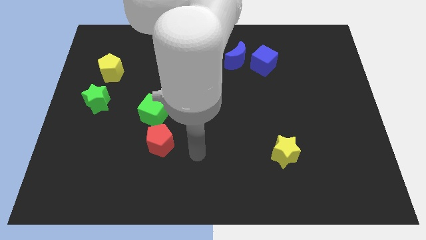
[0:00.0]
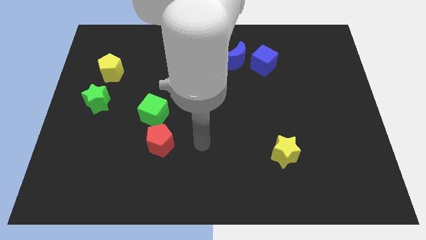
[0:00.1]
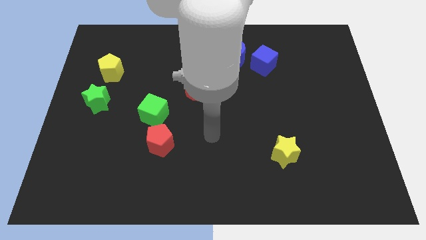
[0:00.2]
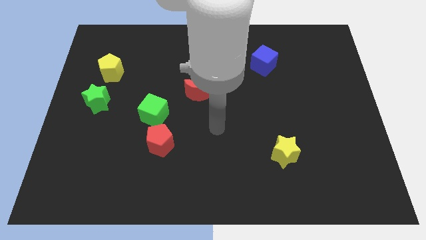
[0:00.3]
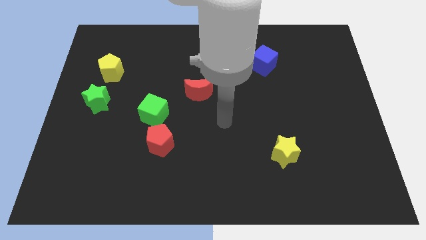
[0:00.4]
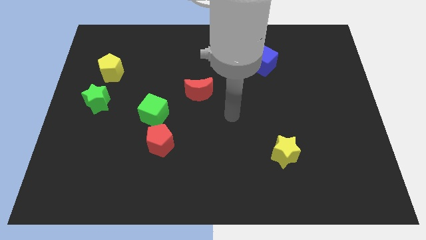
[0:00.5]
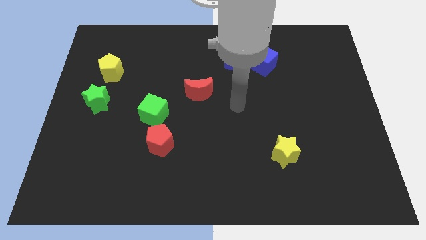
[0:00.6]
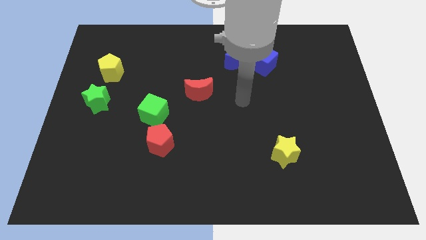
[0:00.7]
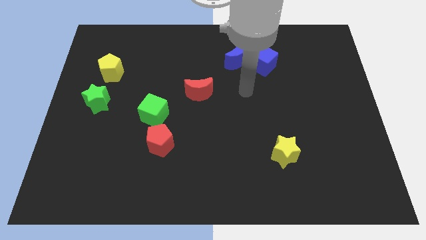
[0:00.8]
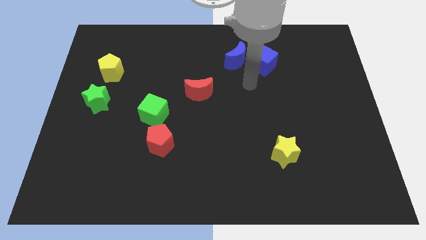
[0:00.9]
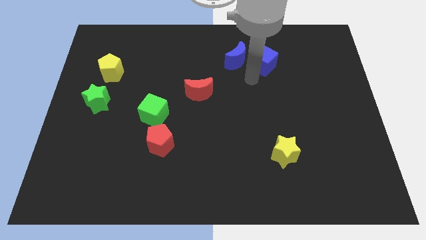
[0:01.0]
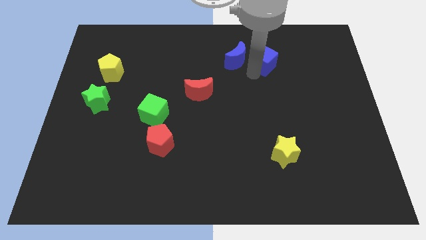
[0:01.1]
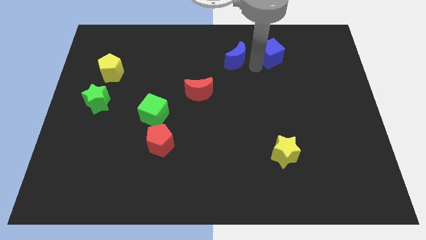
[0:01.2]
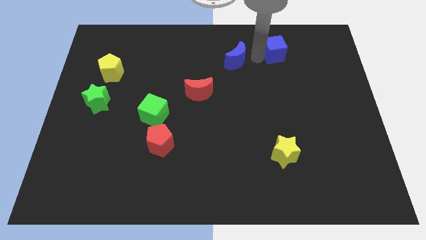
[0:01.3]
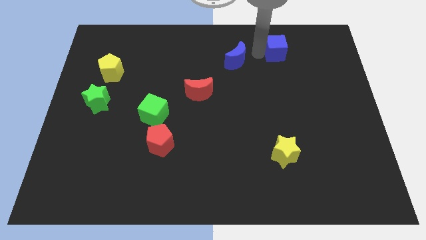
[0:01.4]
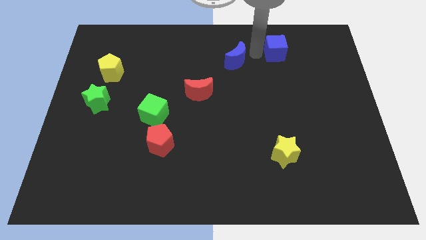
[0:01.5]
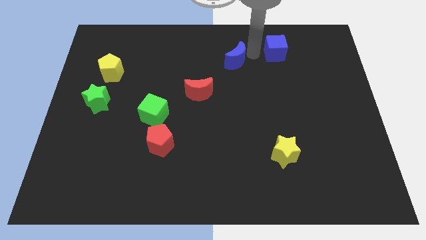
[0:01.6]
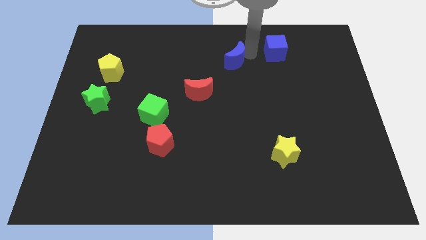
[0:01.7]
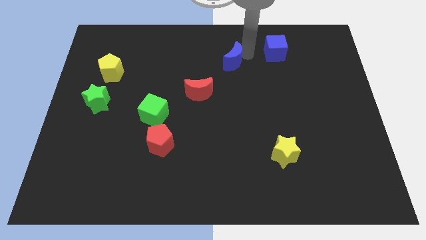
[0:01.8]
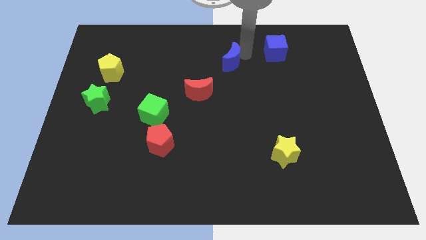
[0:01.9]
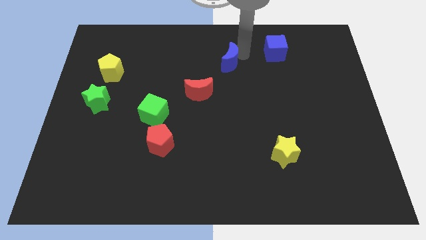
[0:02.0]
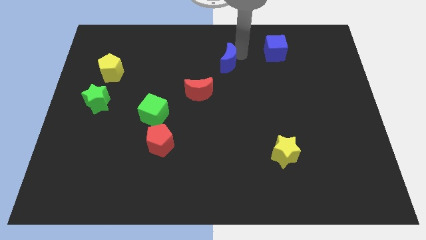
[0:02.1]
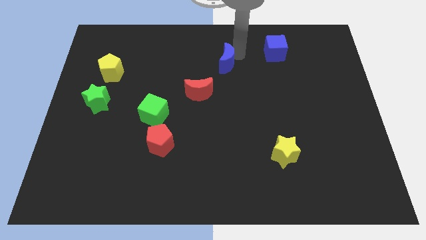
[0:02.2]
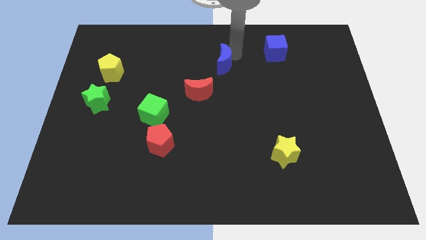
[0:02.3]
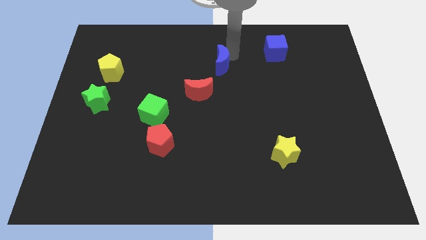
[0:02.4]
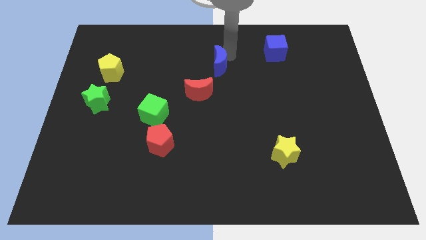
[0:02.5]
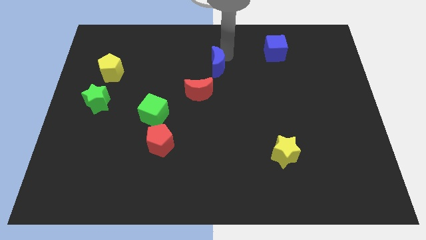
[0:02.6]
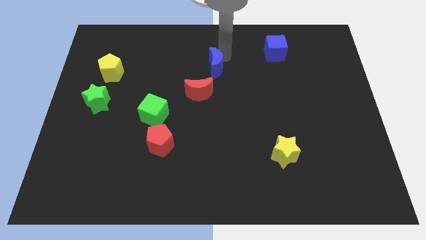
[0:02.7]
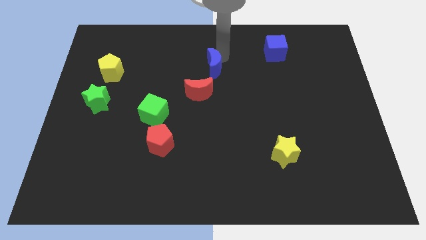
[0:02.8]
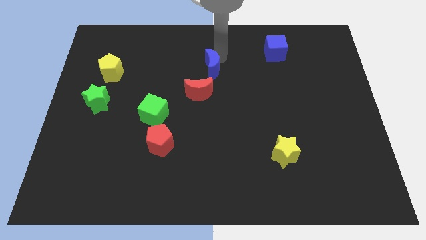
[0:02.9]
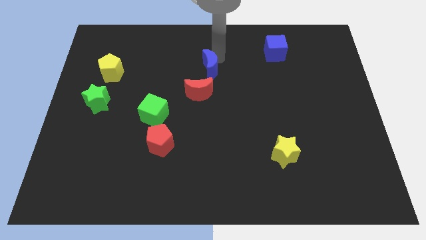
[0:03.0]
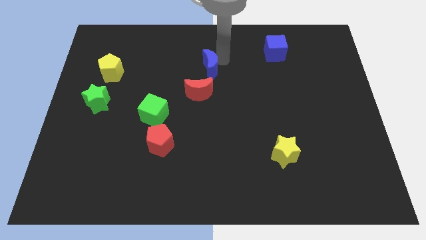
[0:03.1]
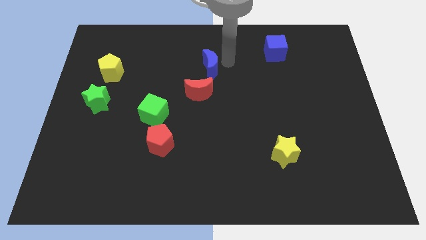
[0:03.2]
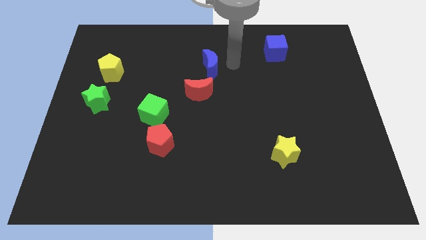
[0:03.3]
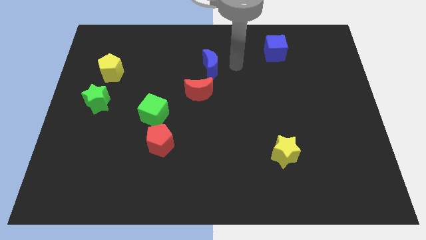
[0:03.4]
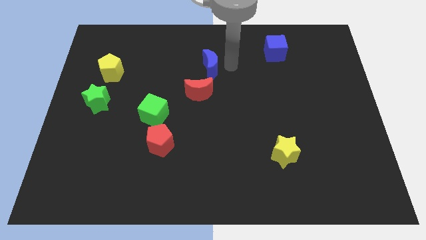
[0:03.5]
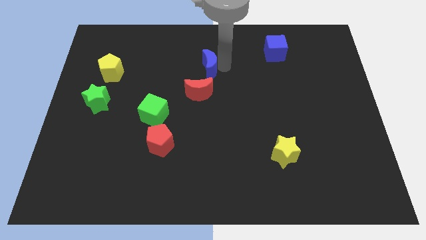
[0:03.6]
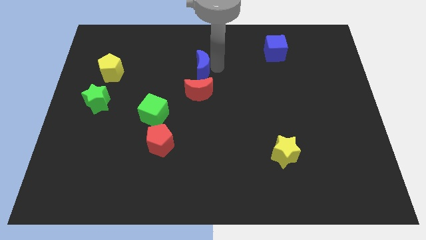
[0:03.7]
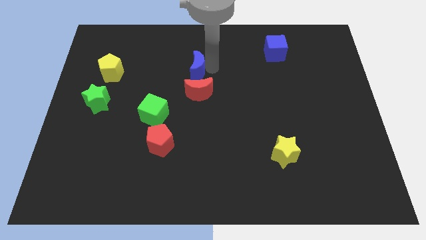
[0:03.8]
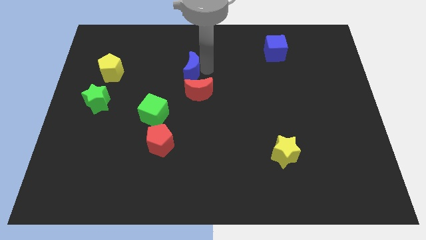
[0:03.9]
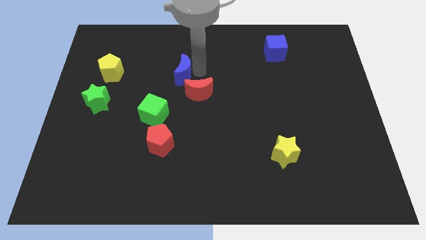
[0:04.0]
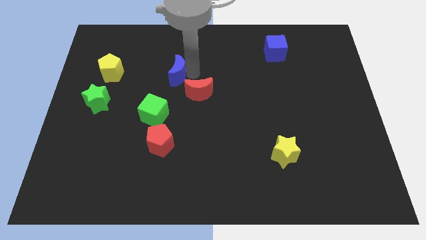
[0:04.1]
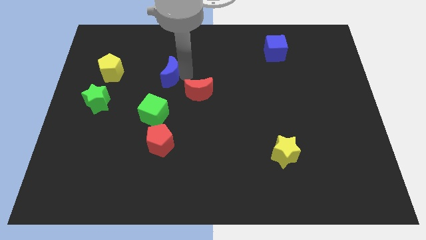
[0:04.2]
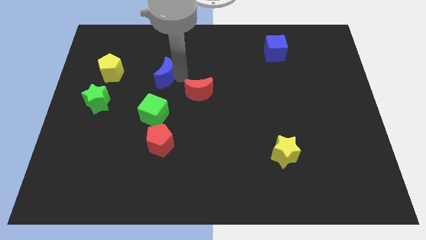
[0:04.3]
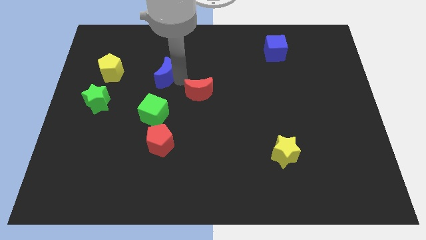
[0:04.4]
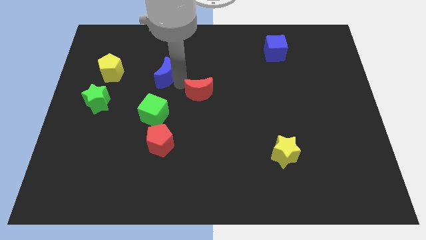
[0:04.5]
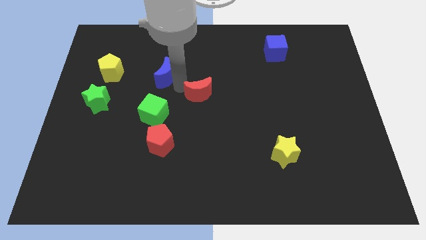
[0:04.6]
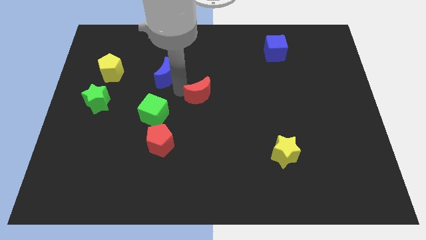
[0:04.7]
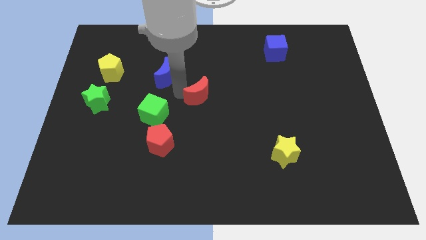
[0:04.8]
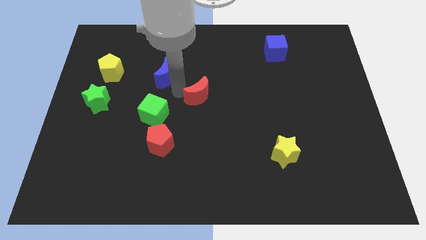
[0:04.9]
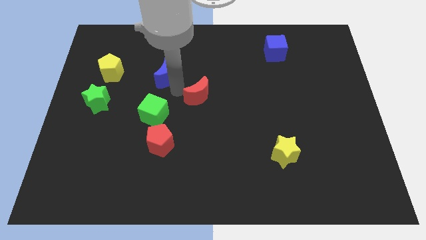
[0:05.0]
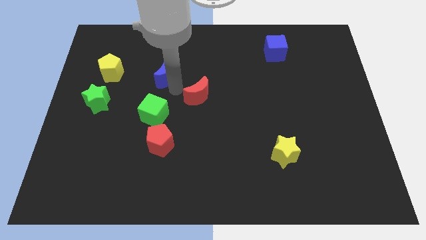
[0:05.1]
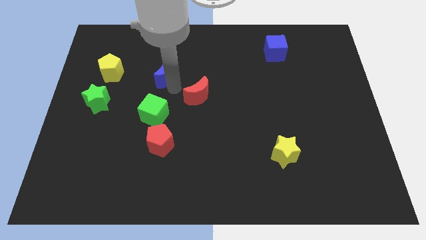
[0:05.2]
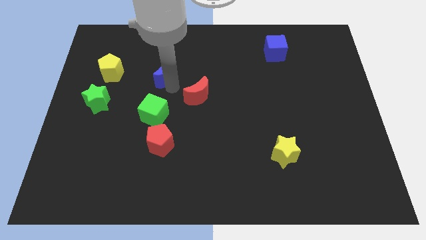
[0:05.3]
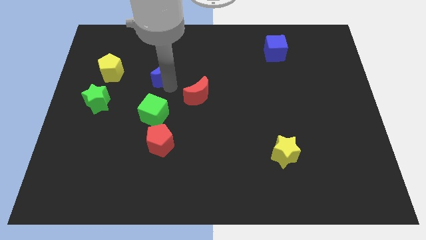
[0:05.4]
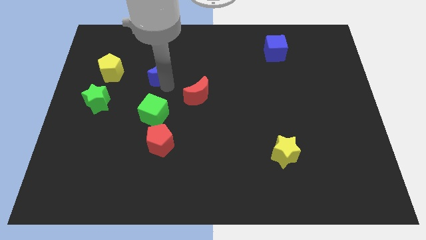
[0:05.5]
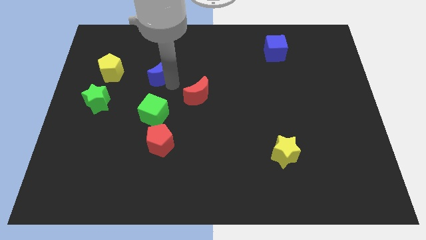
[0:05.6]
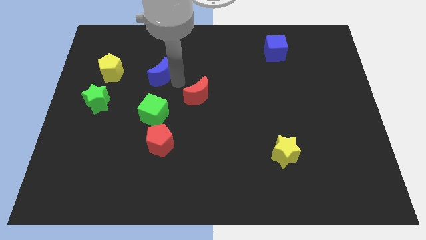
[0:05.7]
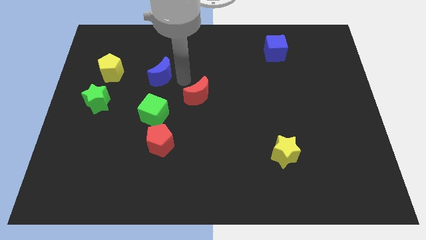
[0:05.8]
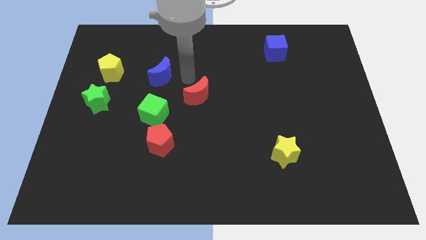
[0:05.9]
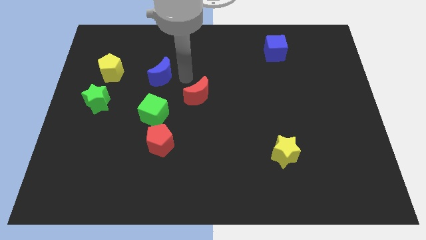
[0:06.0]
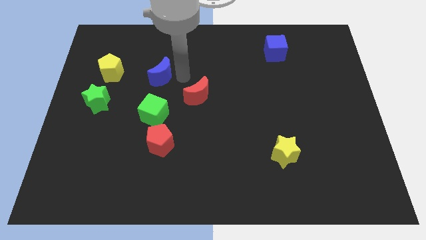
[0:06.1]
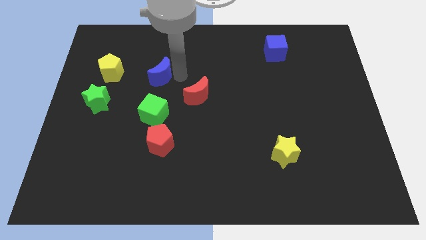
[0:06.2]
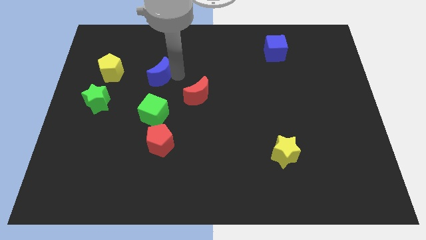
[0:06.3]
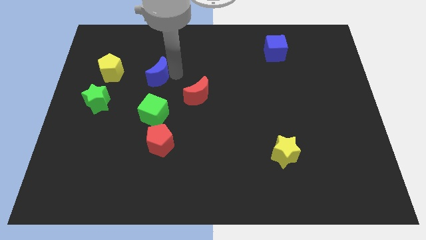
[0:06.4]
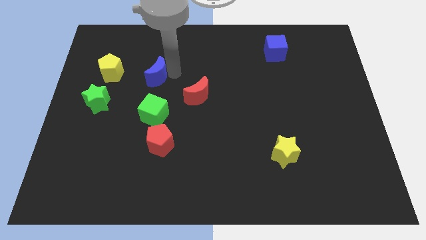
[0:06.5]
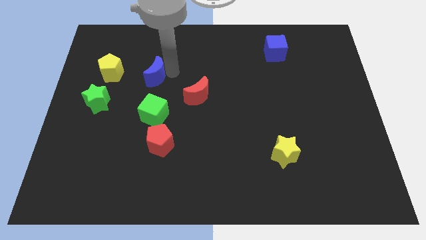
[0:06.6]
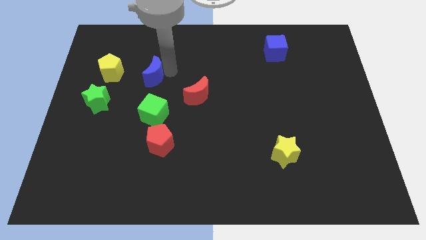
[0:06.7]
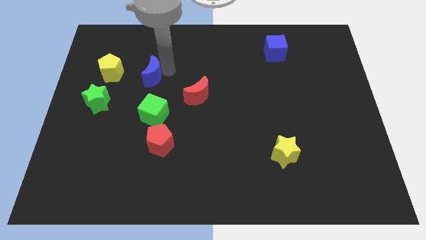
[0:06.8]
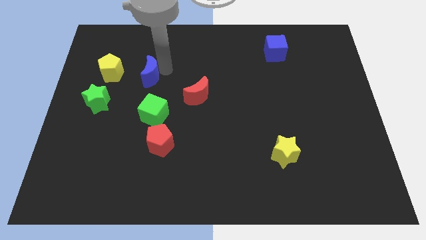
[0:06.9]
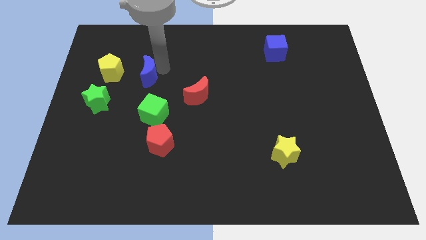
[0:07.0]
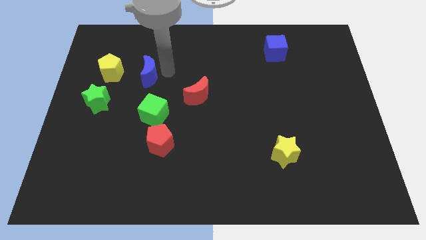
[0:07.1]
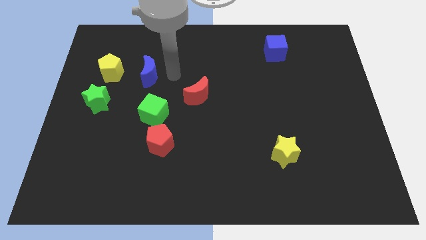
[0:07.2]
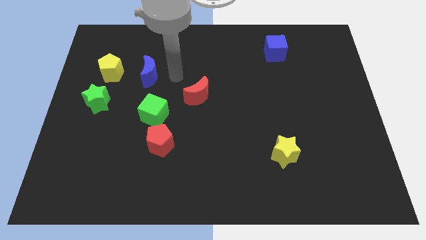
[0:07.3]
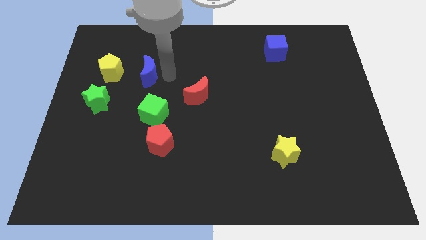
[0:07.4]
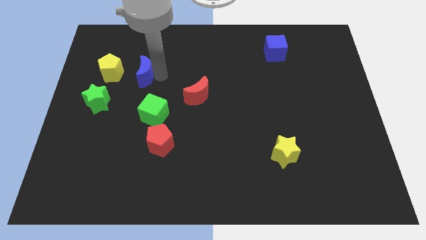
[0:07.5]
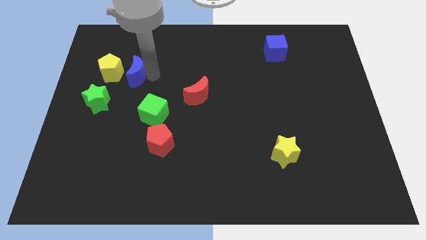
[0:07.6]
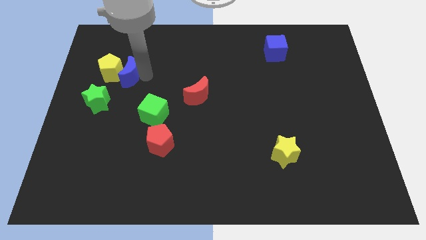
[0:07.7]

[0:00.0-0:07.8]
move the blue moon towards the yellow pentagon
